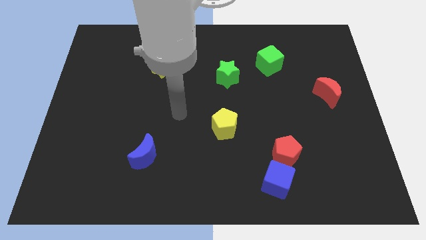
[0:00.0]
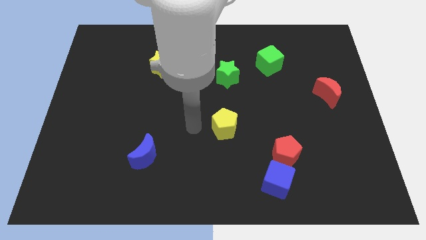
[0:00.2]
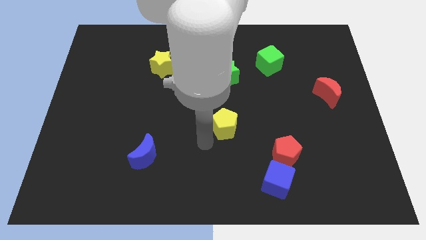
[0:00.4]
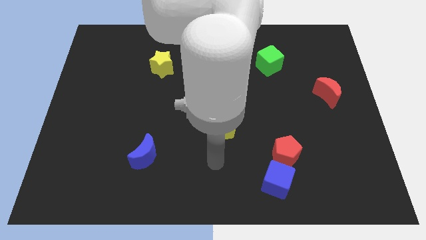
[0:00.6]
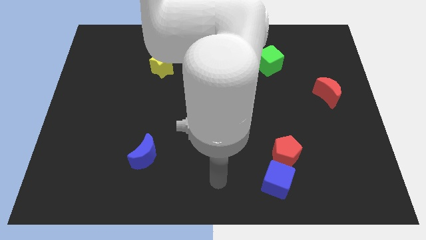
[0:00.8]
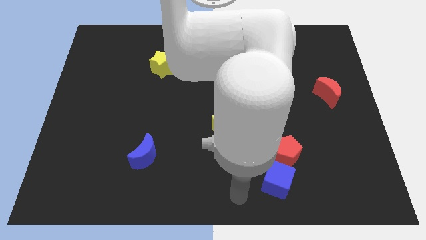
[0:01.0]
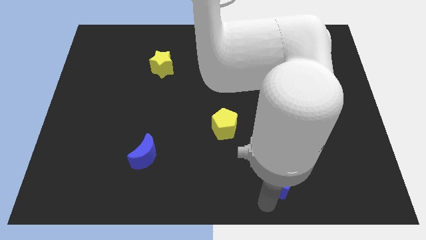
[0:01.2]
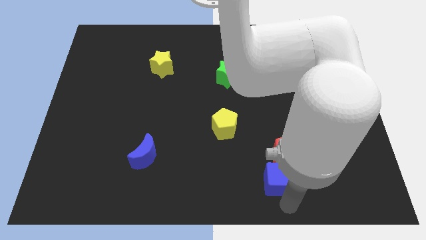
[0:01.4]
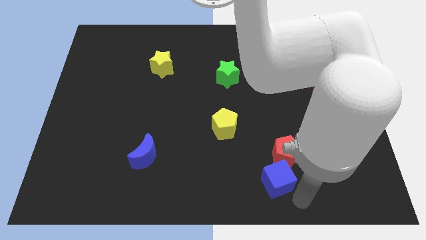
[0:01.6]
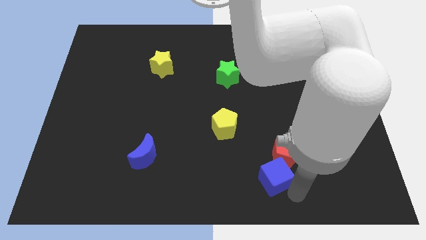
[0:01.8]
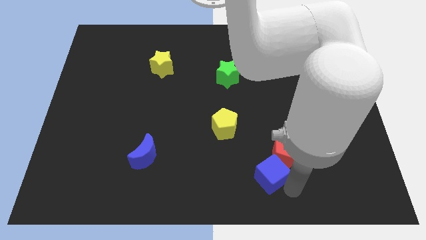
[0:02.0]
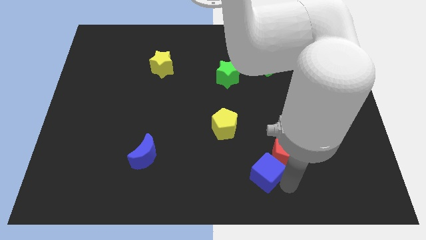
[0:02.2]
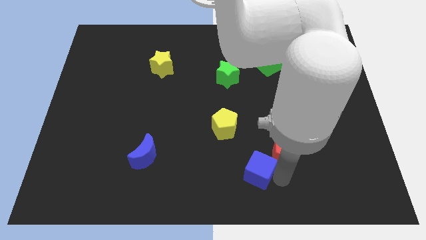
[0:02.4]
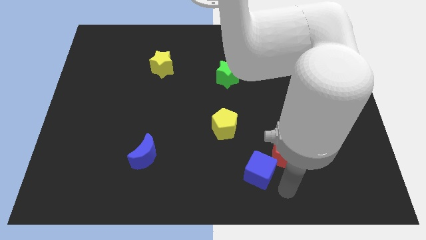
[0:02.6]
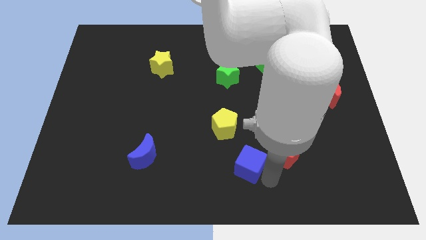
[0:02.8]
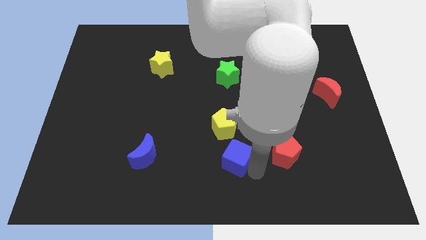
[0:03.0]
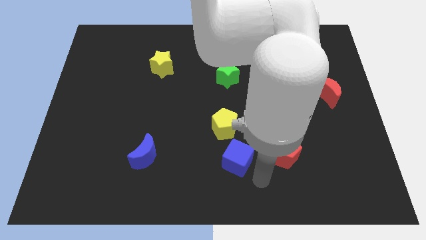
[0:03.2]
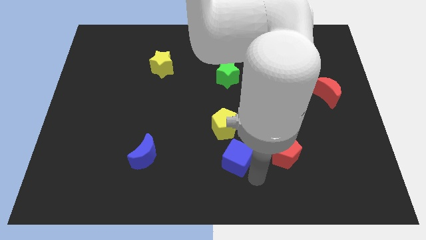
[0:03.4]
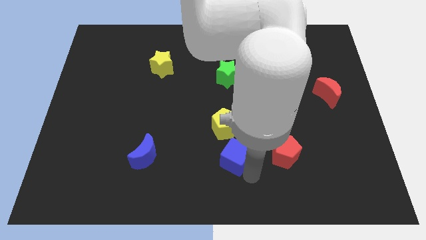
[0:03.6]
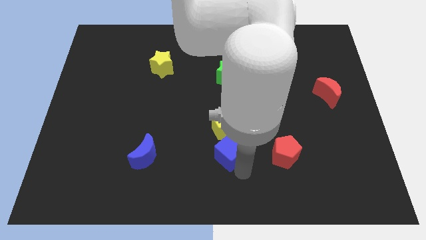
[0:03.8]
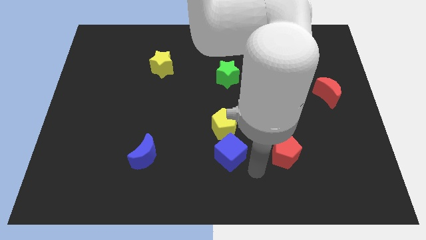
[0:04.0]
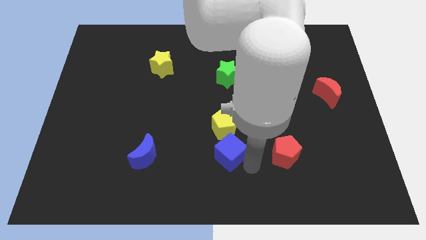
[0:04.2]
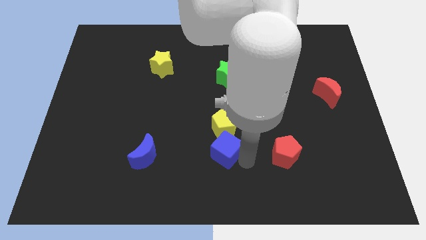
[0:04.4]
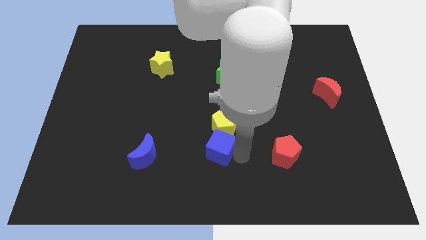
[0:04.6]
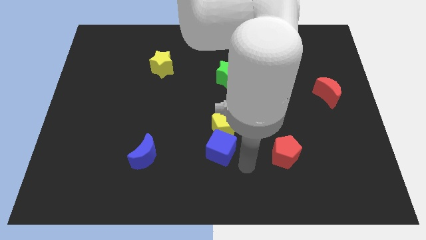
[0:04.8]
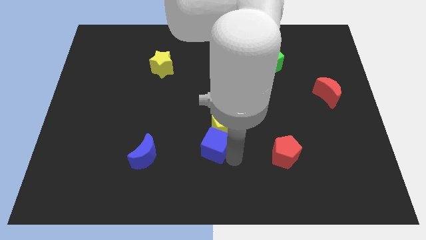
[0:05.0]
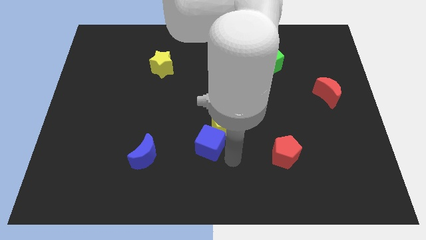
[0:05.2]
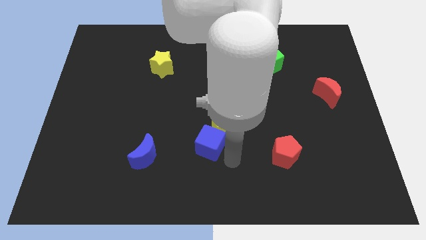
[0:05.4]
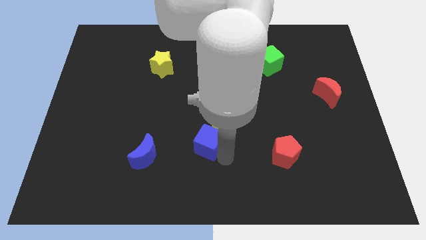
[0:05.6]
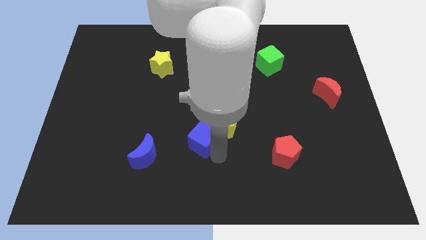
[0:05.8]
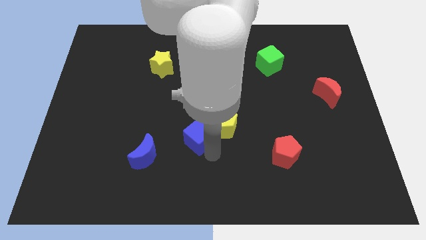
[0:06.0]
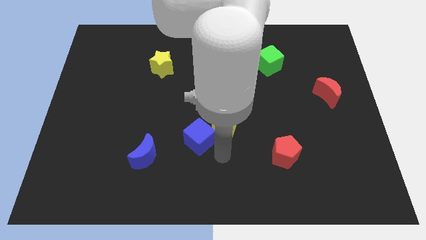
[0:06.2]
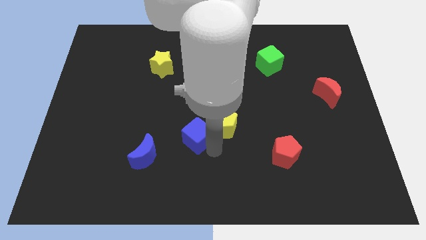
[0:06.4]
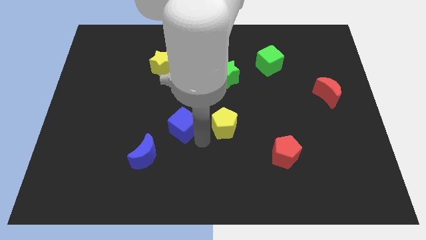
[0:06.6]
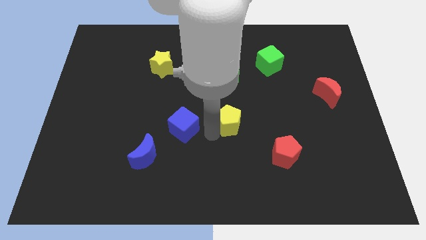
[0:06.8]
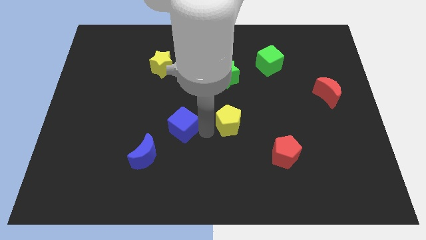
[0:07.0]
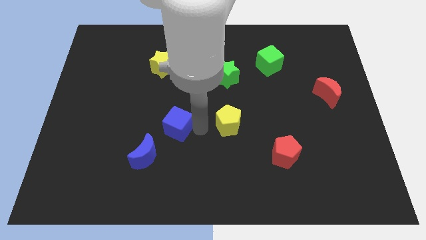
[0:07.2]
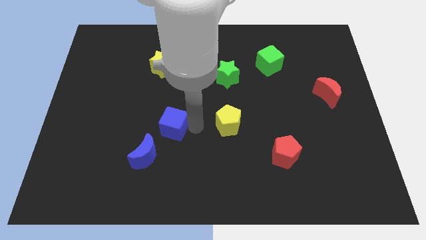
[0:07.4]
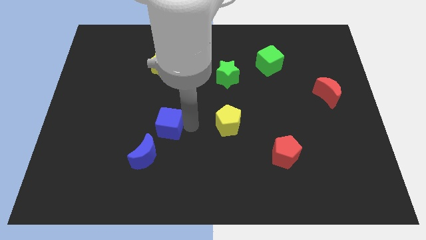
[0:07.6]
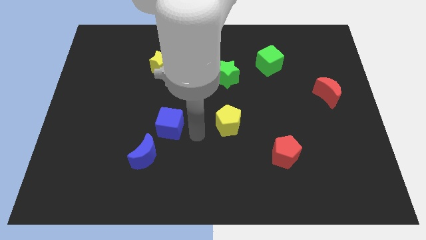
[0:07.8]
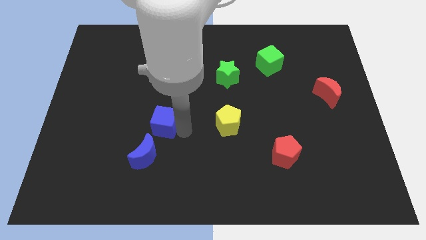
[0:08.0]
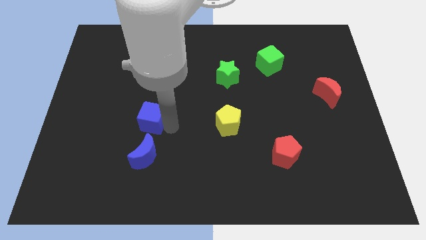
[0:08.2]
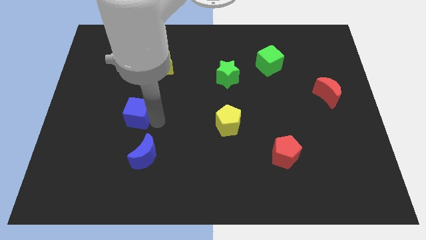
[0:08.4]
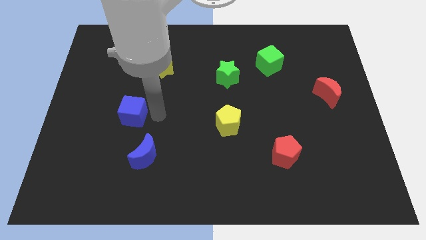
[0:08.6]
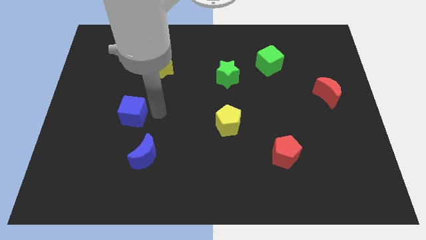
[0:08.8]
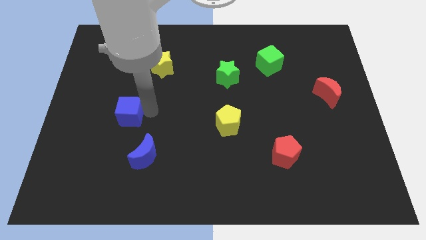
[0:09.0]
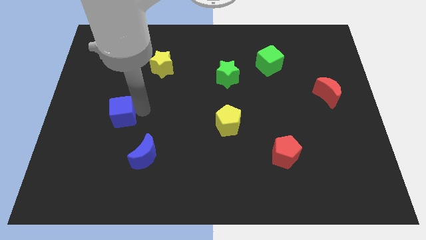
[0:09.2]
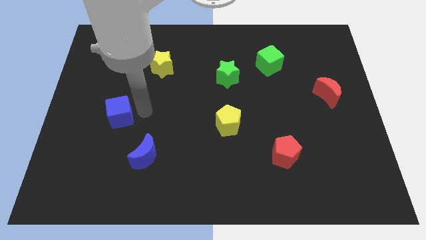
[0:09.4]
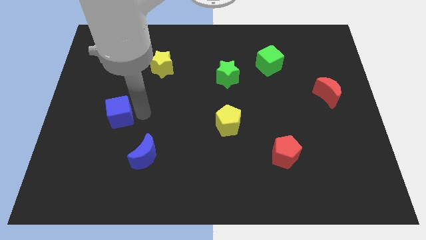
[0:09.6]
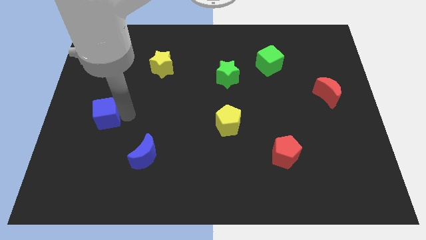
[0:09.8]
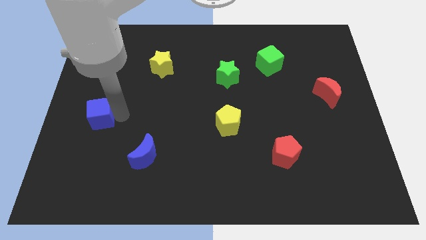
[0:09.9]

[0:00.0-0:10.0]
slide the blue cube to the center left

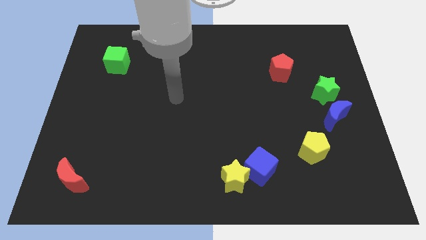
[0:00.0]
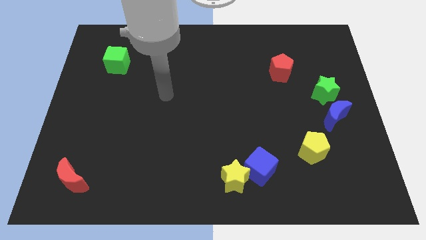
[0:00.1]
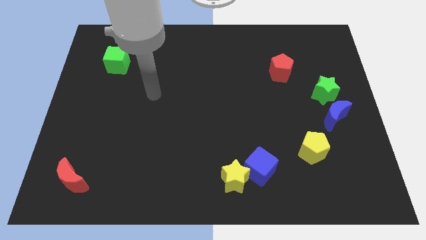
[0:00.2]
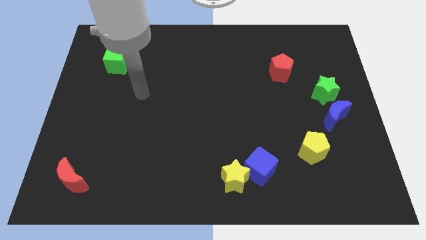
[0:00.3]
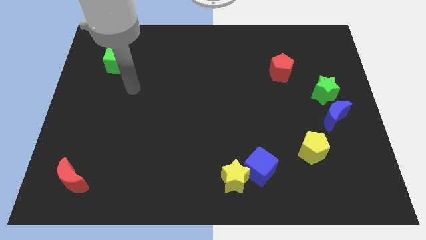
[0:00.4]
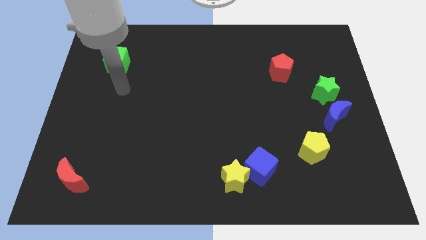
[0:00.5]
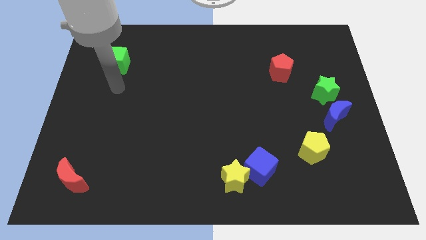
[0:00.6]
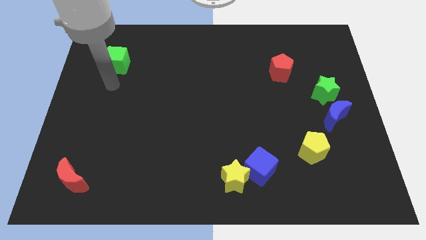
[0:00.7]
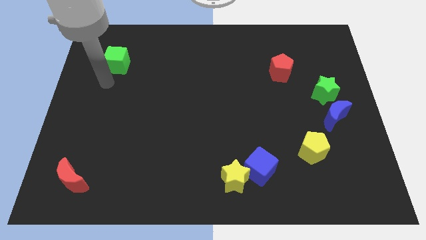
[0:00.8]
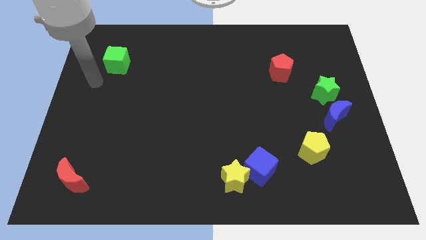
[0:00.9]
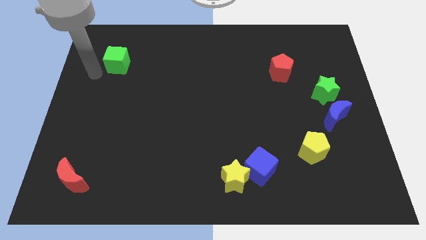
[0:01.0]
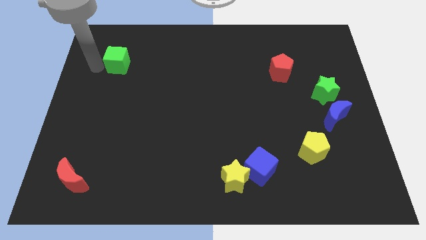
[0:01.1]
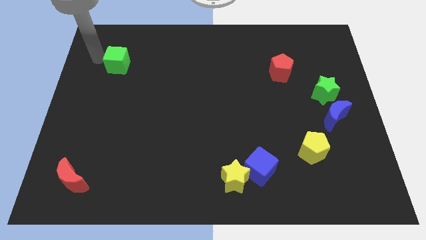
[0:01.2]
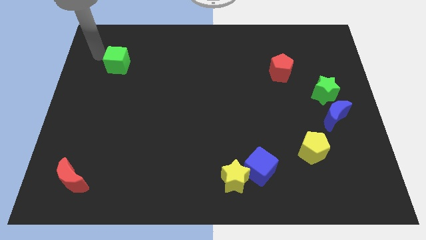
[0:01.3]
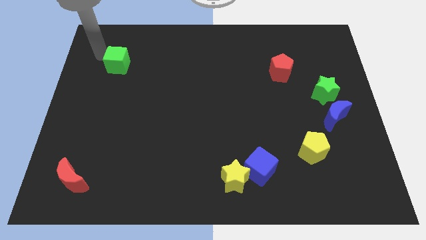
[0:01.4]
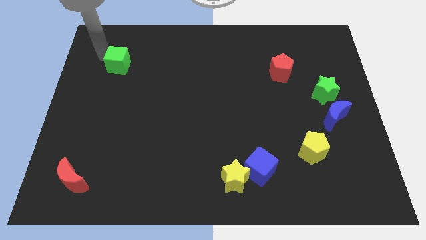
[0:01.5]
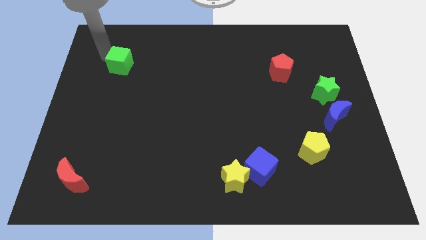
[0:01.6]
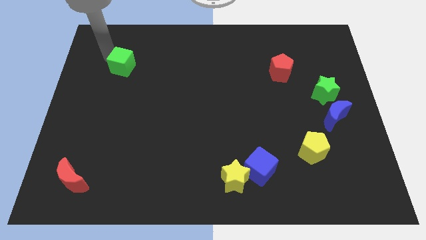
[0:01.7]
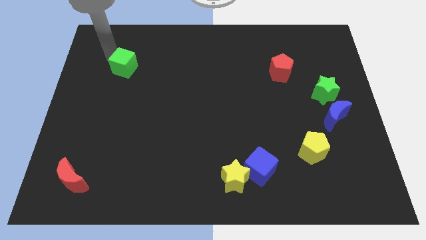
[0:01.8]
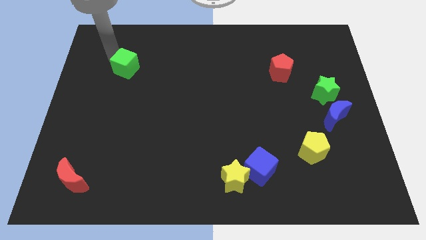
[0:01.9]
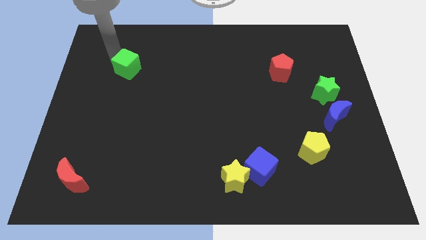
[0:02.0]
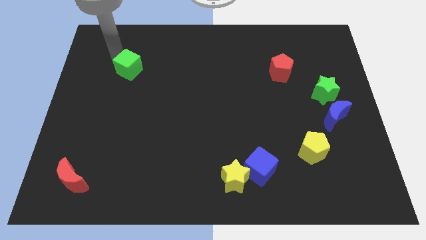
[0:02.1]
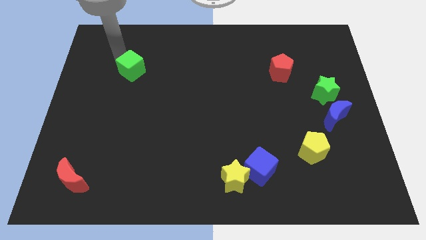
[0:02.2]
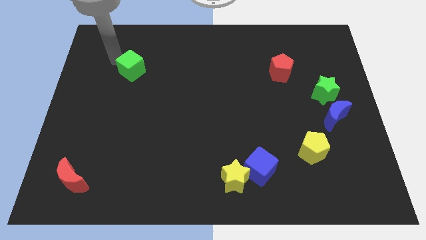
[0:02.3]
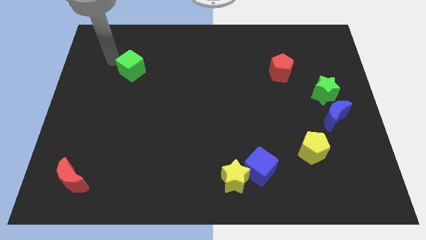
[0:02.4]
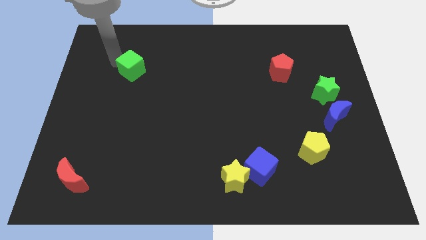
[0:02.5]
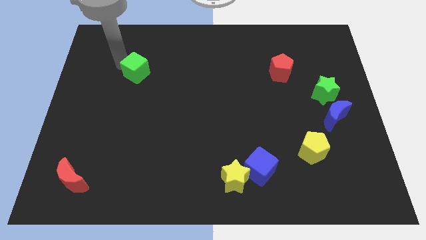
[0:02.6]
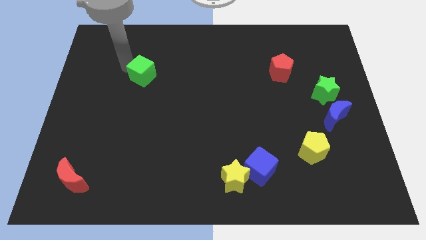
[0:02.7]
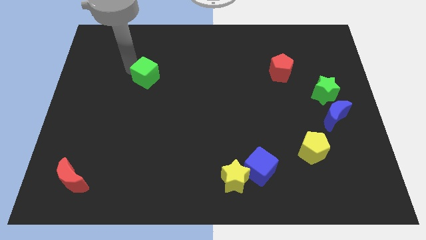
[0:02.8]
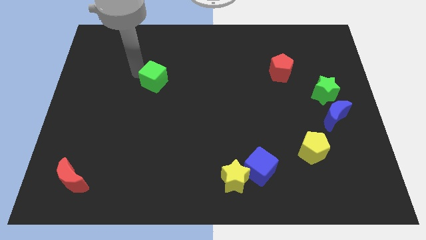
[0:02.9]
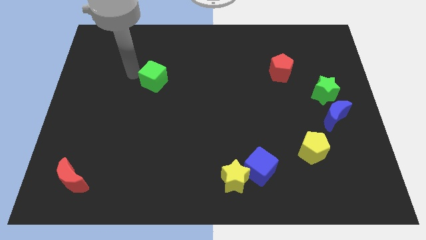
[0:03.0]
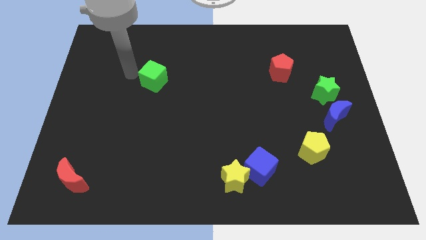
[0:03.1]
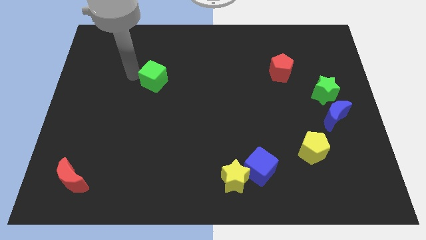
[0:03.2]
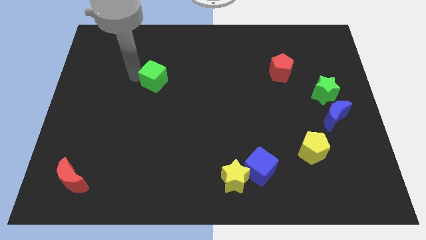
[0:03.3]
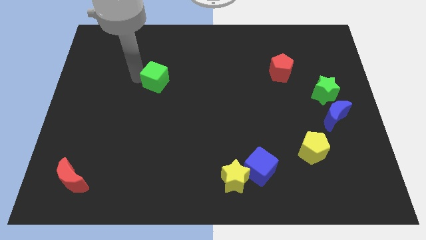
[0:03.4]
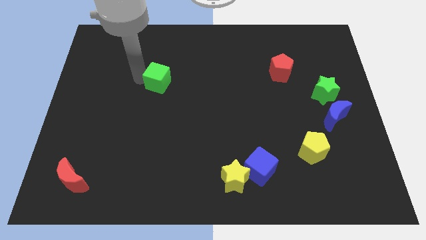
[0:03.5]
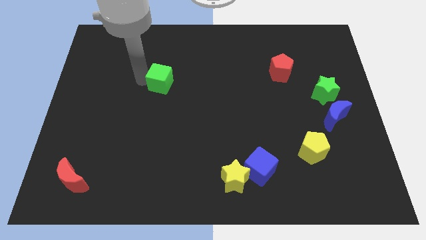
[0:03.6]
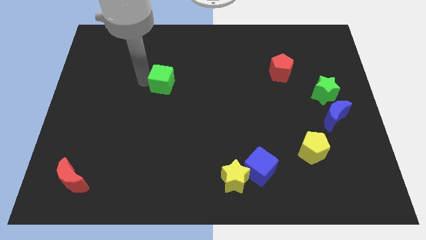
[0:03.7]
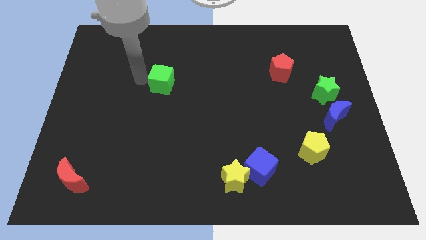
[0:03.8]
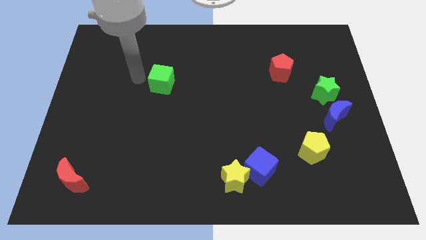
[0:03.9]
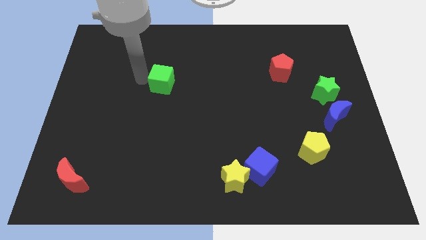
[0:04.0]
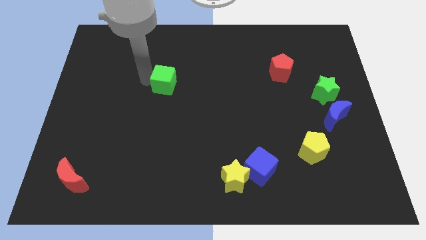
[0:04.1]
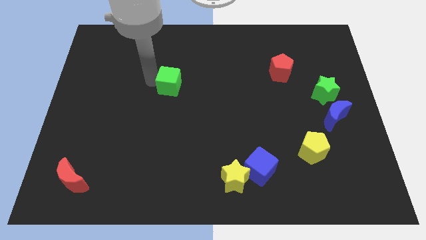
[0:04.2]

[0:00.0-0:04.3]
move the green cube to the middle
